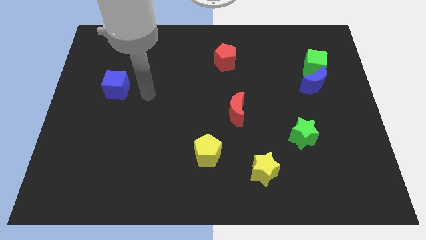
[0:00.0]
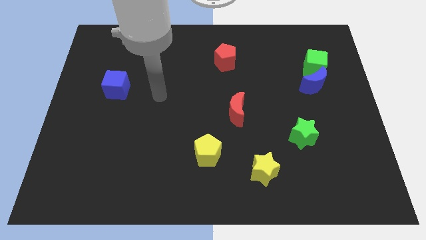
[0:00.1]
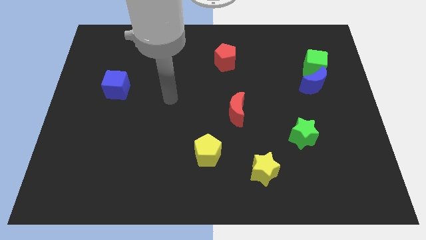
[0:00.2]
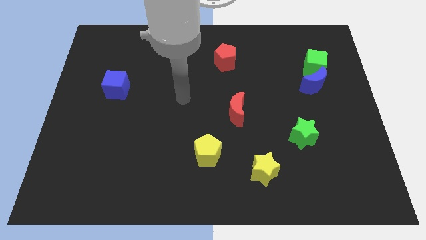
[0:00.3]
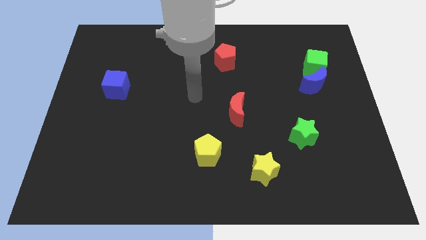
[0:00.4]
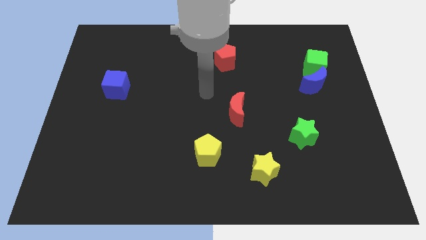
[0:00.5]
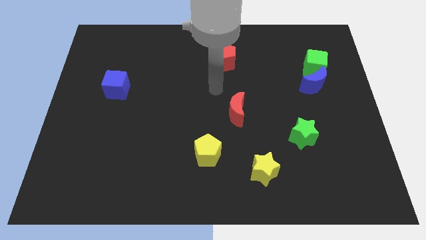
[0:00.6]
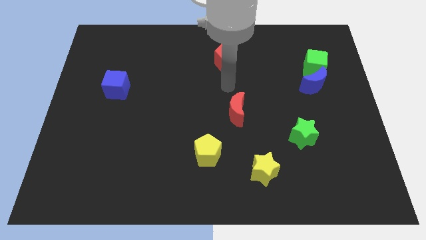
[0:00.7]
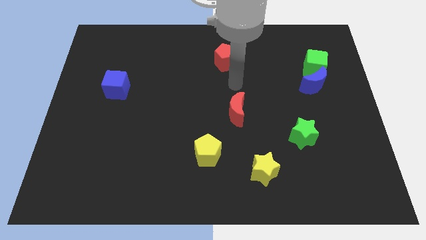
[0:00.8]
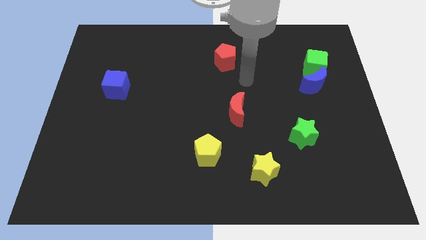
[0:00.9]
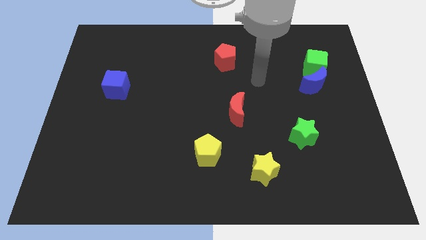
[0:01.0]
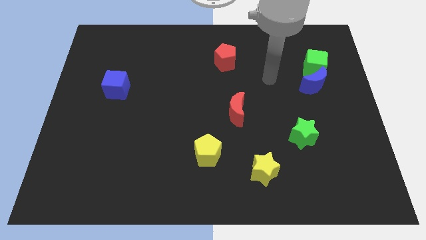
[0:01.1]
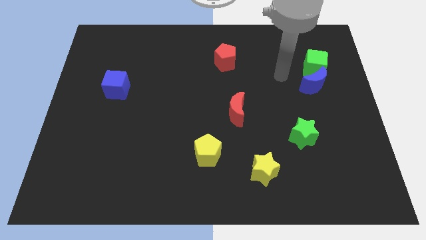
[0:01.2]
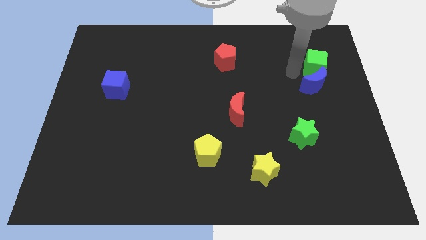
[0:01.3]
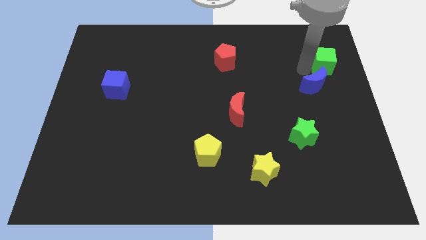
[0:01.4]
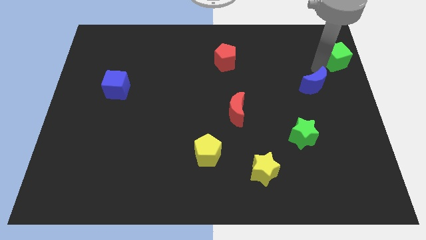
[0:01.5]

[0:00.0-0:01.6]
pull the blue moon apart from the green cube

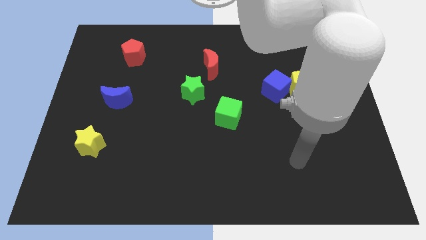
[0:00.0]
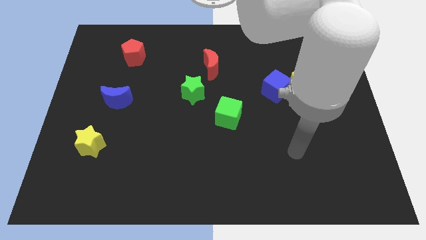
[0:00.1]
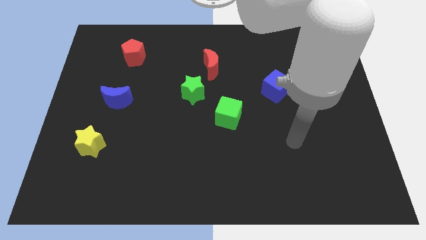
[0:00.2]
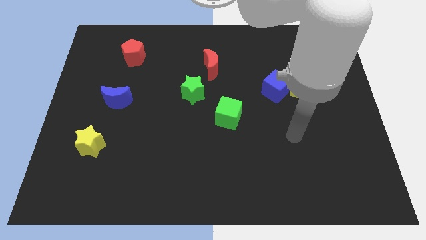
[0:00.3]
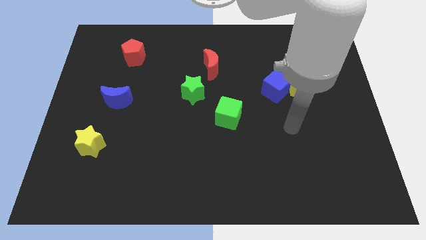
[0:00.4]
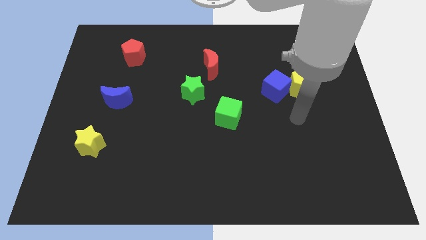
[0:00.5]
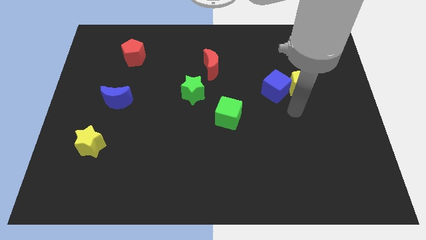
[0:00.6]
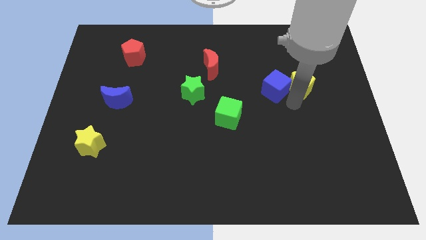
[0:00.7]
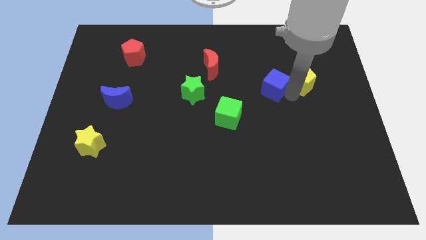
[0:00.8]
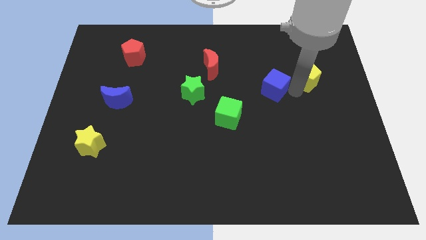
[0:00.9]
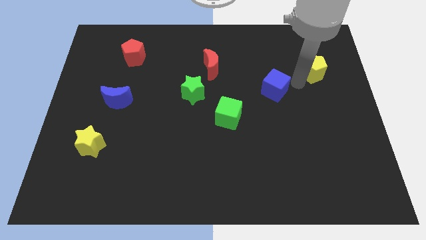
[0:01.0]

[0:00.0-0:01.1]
move the blue cube away from the yellow pentagon

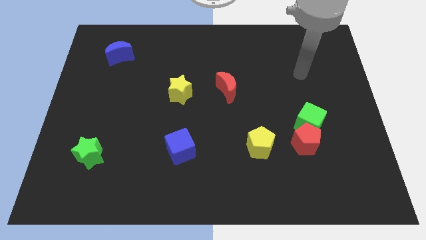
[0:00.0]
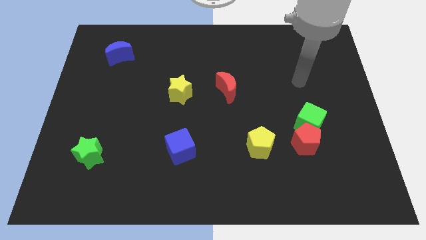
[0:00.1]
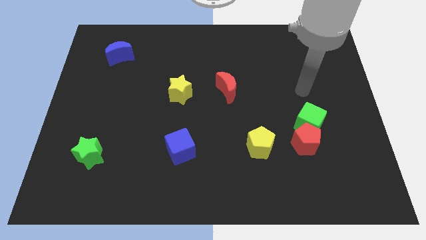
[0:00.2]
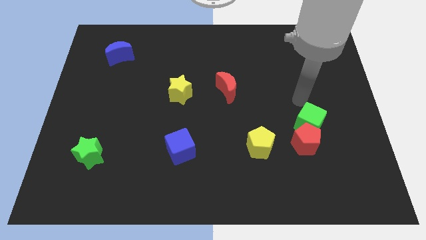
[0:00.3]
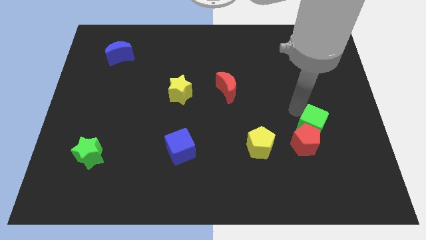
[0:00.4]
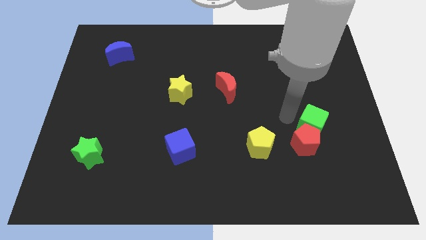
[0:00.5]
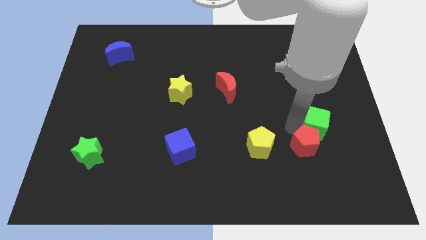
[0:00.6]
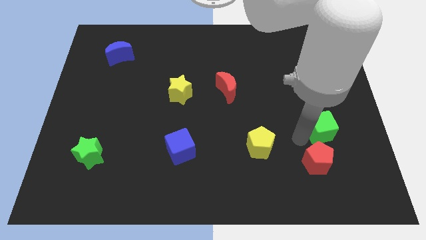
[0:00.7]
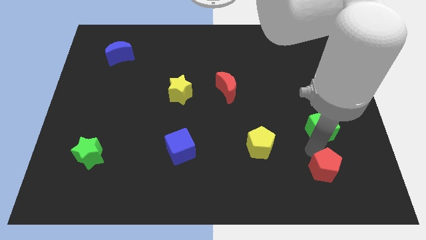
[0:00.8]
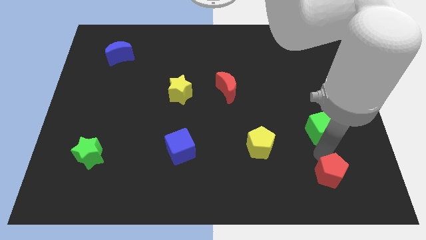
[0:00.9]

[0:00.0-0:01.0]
separate the green cube from the red pentagon

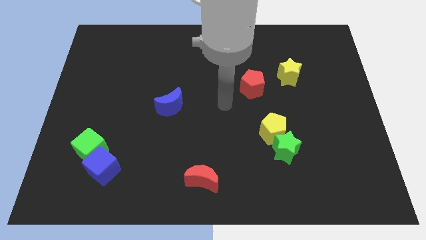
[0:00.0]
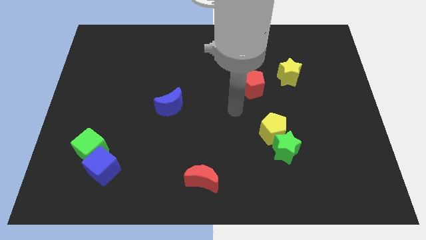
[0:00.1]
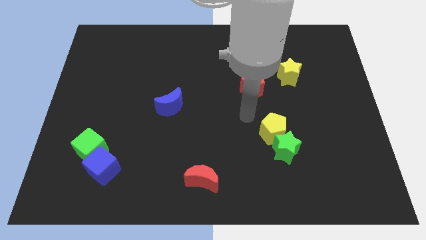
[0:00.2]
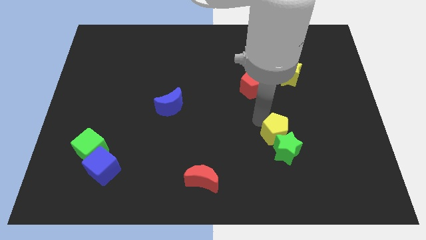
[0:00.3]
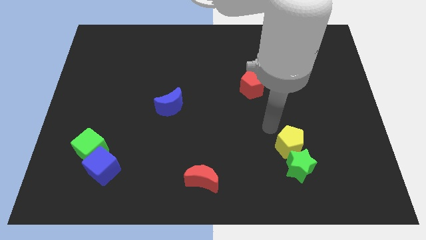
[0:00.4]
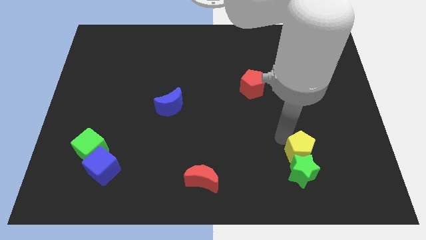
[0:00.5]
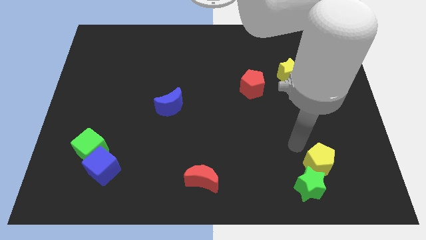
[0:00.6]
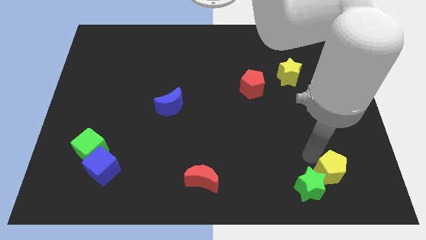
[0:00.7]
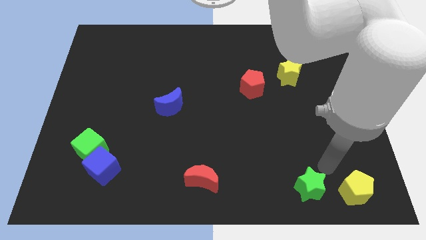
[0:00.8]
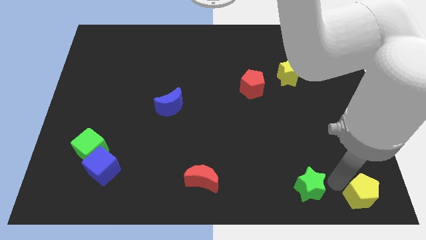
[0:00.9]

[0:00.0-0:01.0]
move the green star away from the yellow pentagon

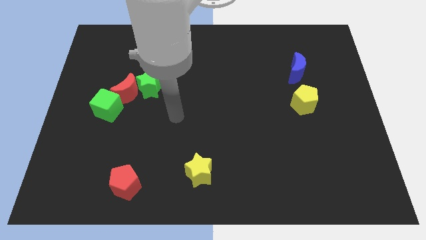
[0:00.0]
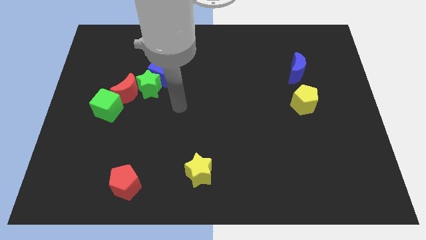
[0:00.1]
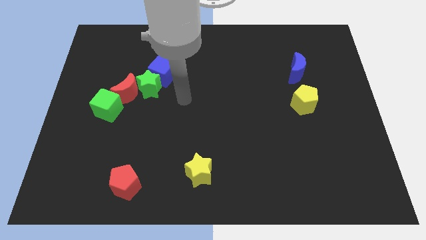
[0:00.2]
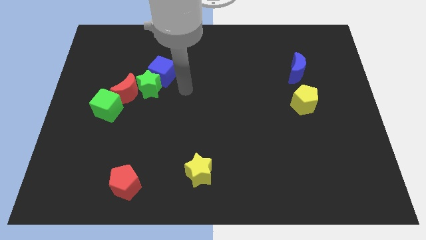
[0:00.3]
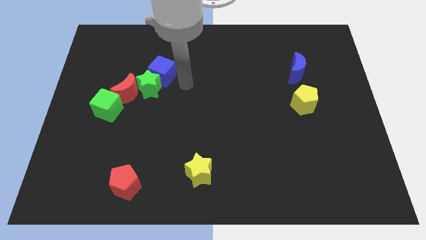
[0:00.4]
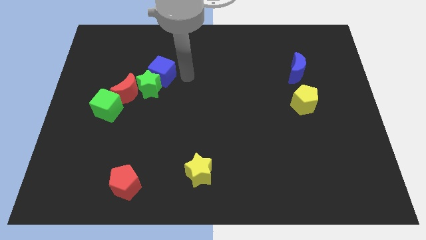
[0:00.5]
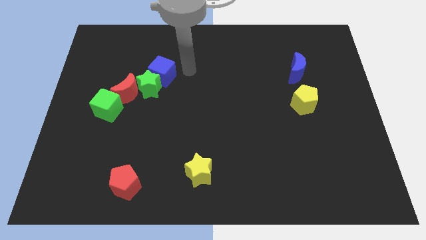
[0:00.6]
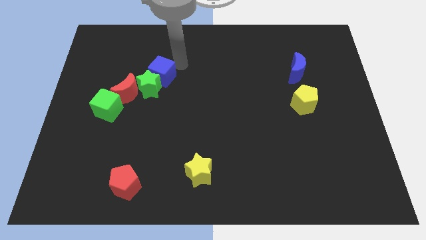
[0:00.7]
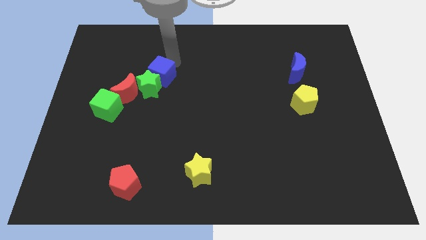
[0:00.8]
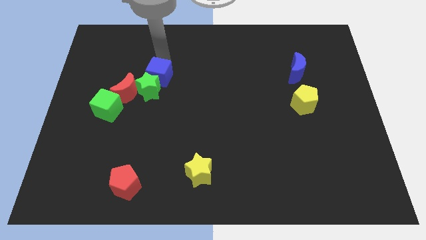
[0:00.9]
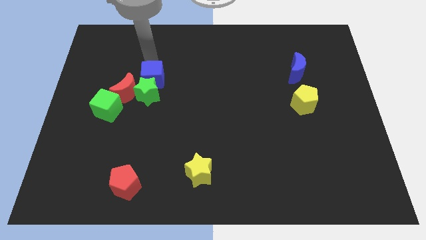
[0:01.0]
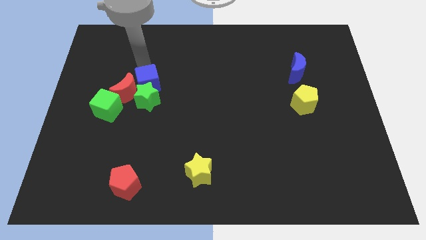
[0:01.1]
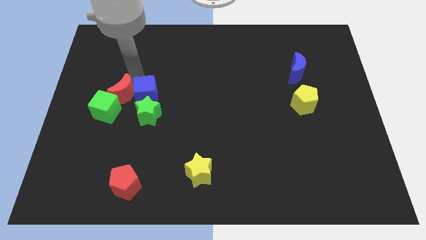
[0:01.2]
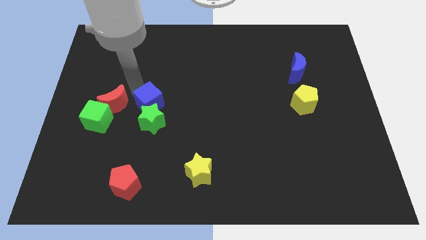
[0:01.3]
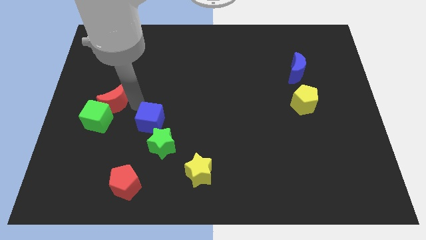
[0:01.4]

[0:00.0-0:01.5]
move the green star away from the red moon and blue cube

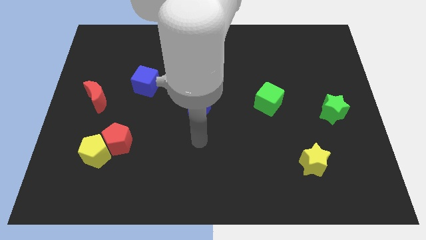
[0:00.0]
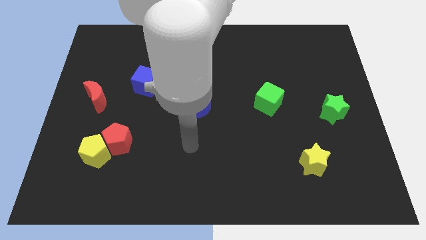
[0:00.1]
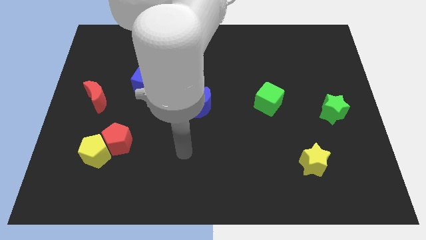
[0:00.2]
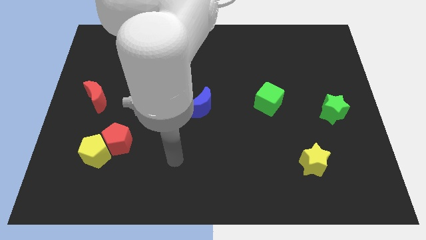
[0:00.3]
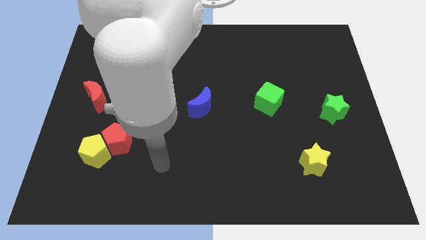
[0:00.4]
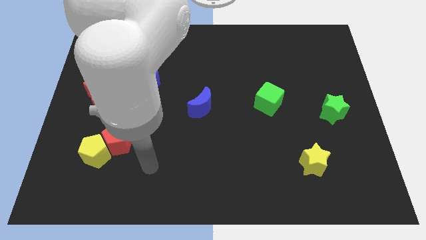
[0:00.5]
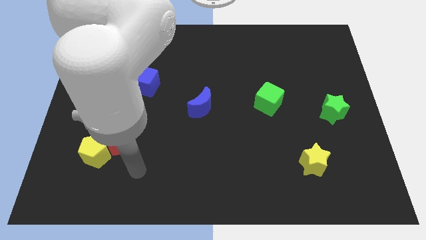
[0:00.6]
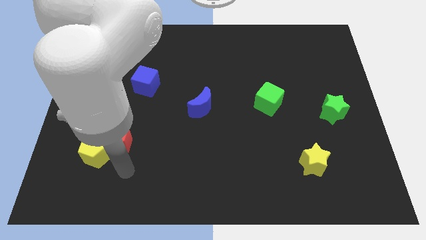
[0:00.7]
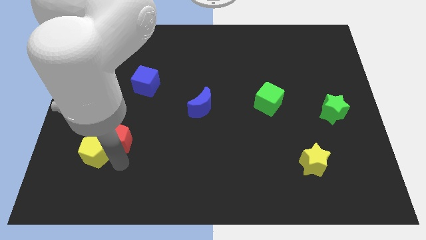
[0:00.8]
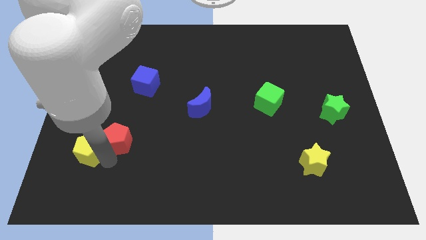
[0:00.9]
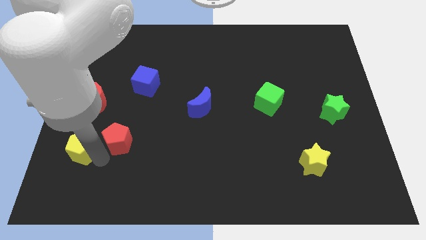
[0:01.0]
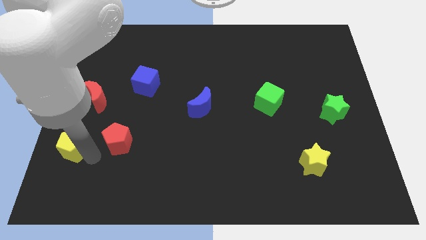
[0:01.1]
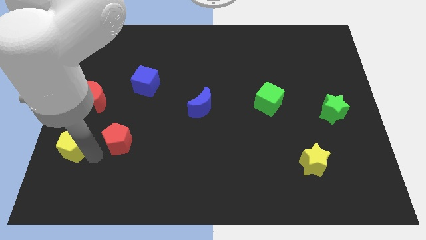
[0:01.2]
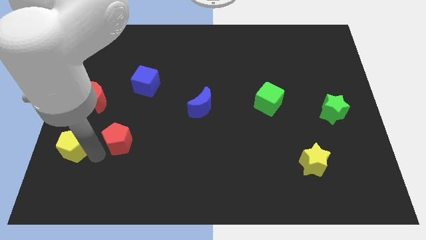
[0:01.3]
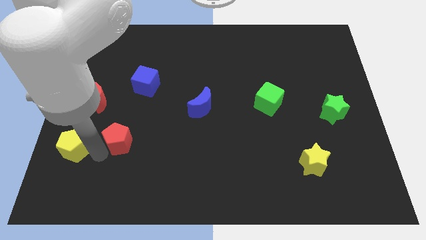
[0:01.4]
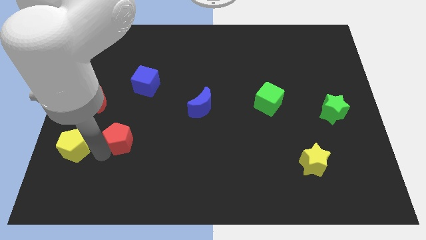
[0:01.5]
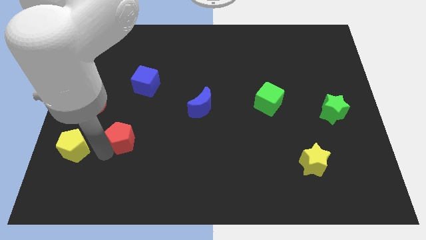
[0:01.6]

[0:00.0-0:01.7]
move the red pentagon away from the yellow pentagon

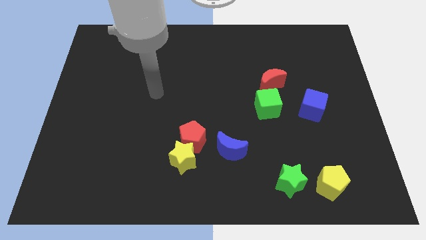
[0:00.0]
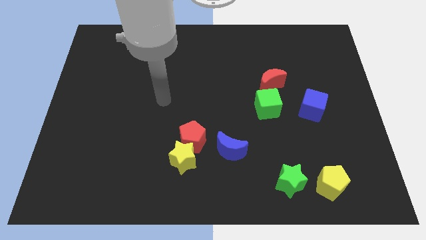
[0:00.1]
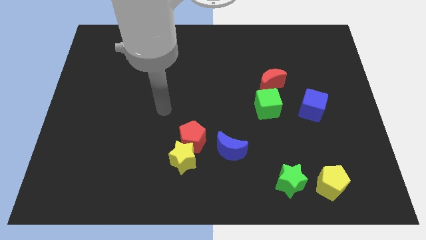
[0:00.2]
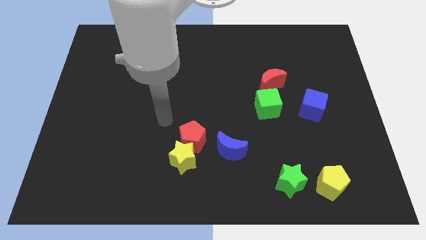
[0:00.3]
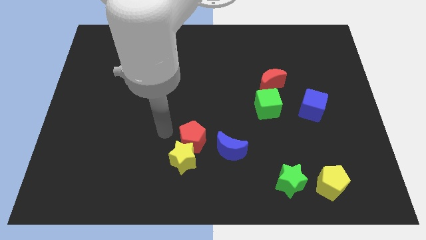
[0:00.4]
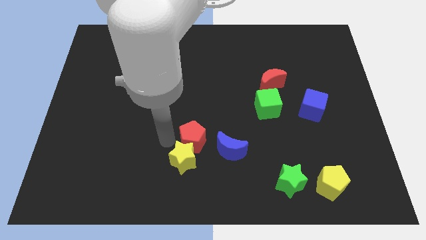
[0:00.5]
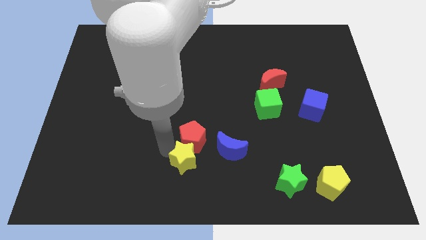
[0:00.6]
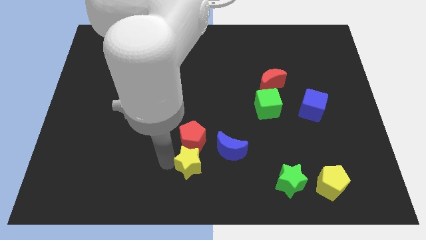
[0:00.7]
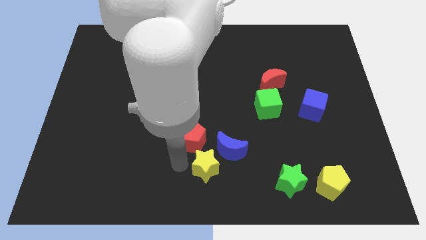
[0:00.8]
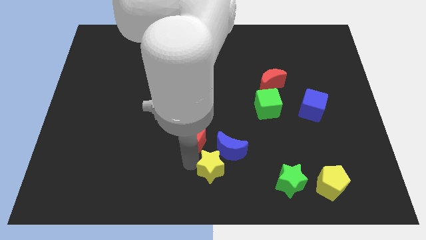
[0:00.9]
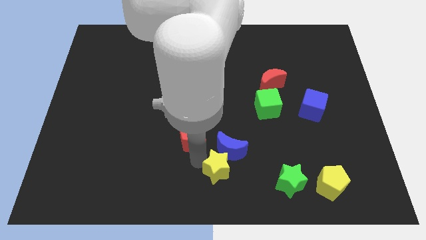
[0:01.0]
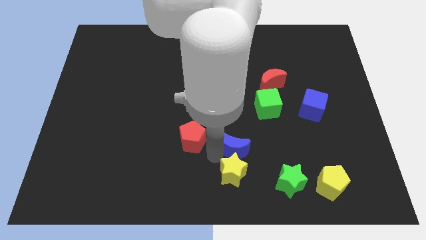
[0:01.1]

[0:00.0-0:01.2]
move the red pentagon away from the yellow star and blue moon

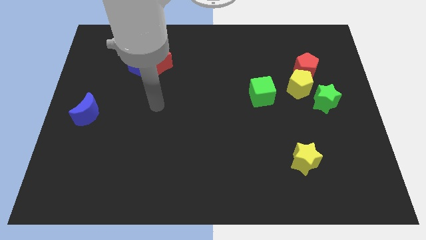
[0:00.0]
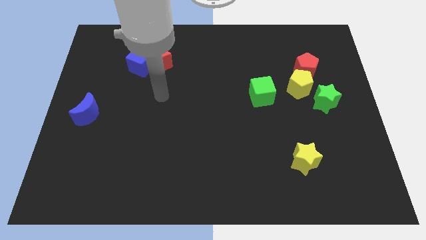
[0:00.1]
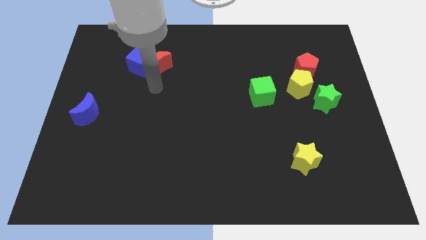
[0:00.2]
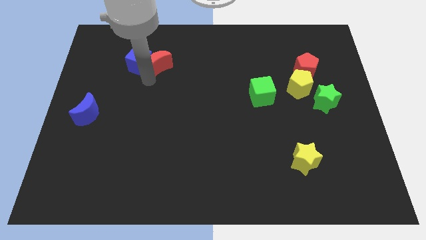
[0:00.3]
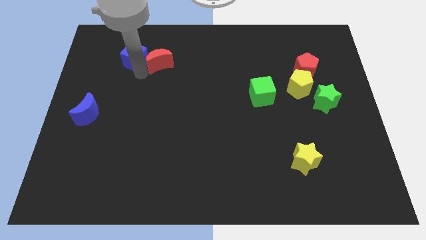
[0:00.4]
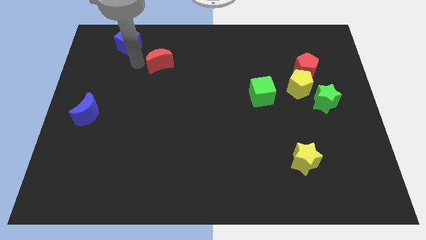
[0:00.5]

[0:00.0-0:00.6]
move the red moon away from the blue cube
